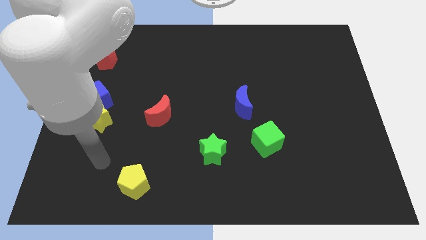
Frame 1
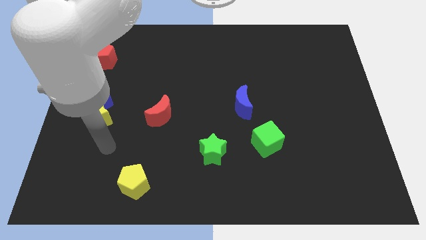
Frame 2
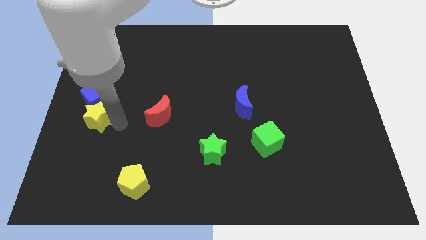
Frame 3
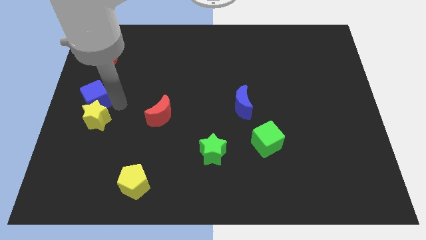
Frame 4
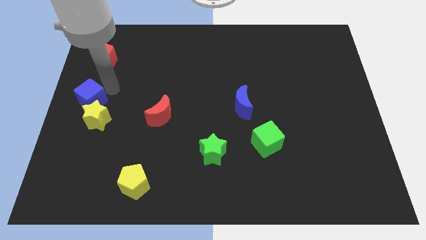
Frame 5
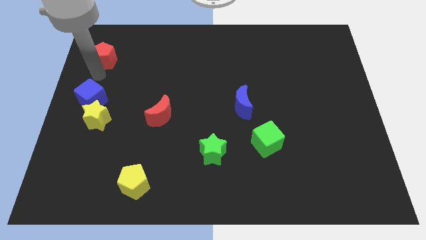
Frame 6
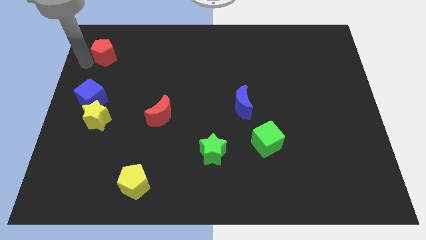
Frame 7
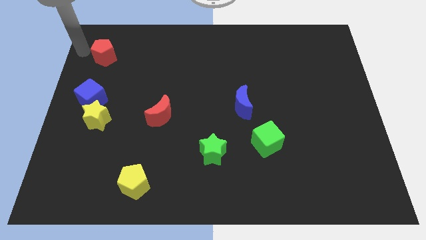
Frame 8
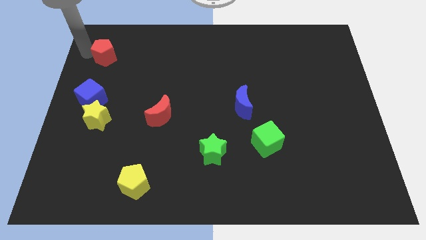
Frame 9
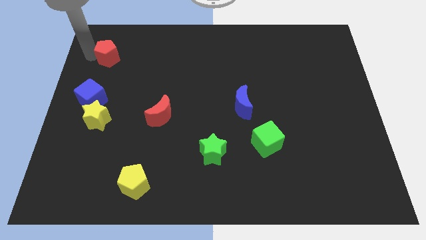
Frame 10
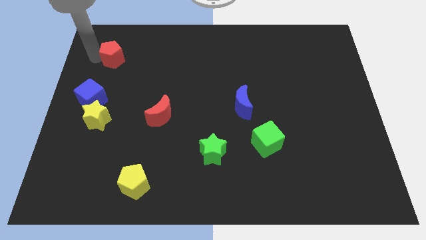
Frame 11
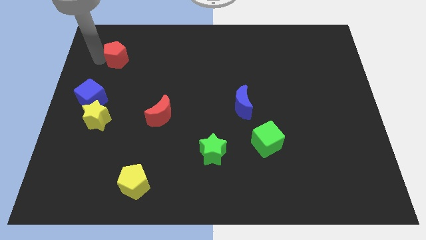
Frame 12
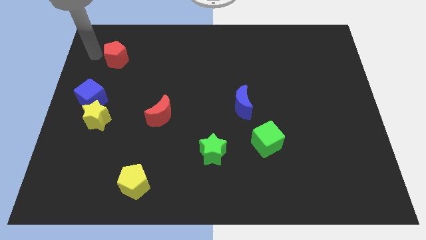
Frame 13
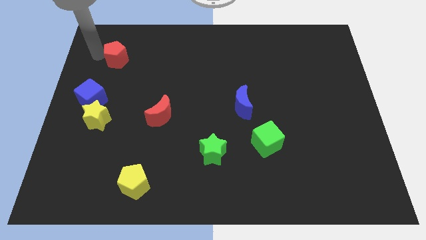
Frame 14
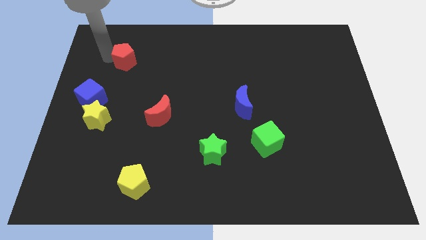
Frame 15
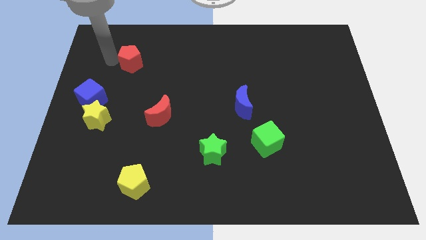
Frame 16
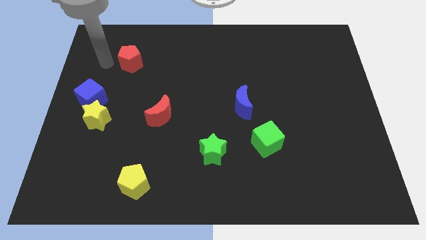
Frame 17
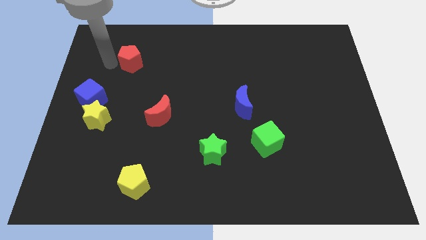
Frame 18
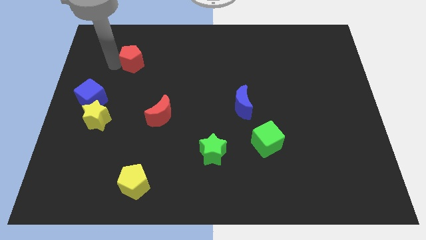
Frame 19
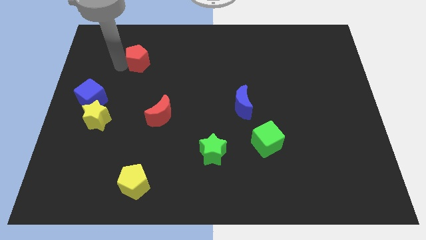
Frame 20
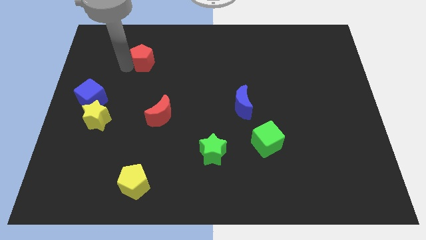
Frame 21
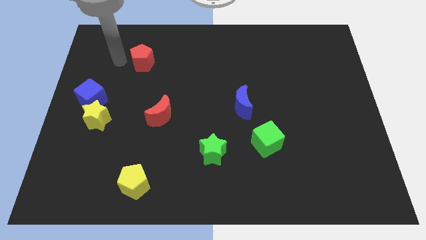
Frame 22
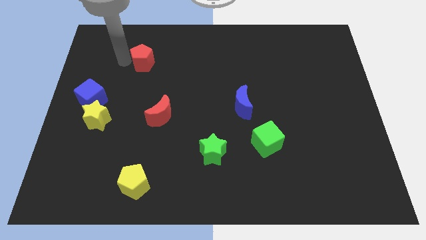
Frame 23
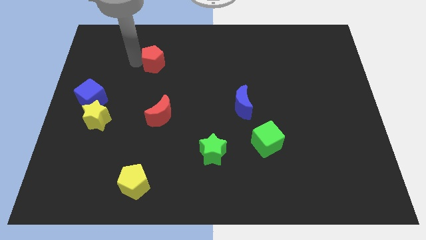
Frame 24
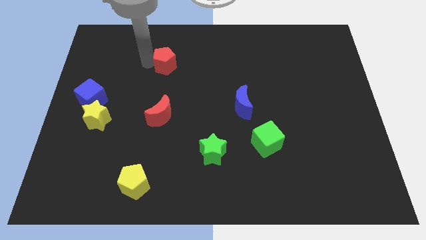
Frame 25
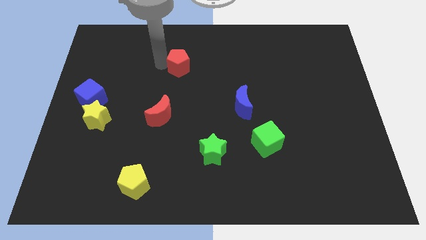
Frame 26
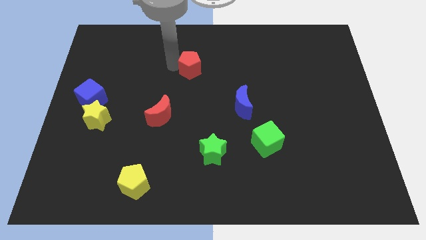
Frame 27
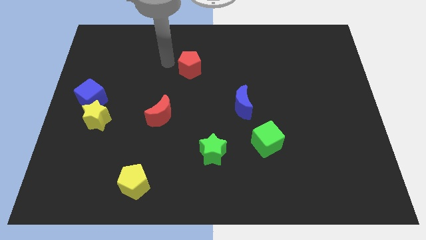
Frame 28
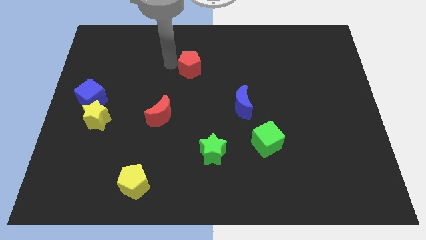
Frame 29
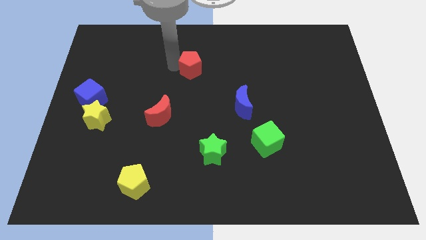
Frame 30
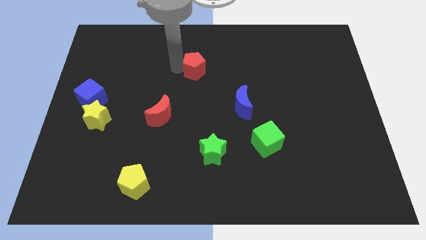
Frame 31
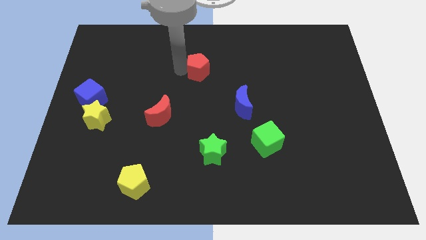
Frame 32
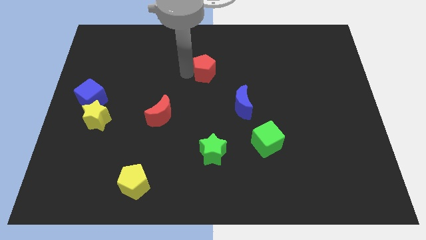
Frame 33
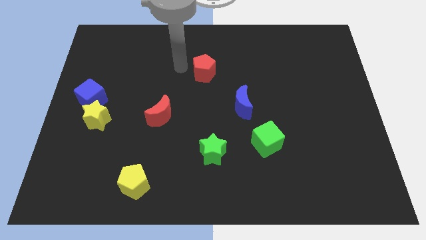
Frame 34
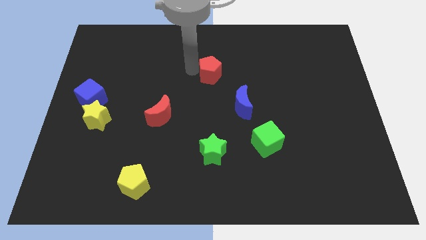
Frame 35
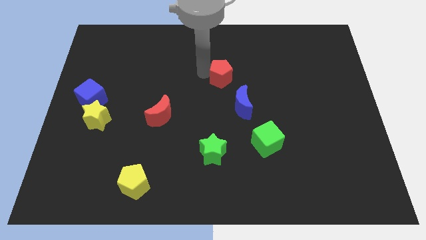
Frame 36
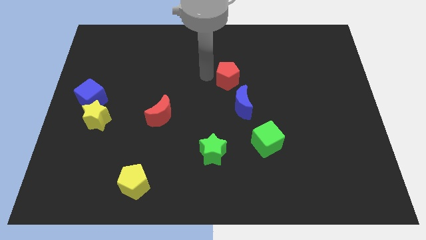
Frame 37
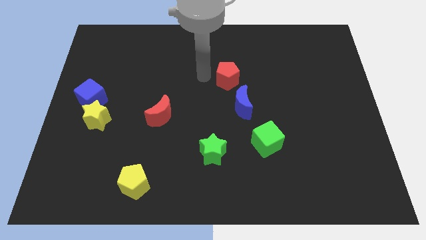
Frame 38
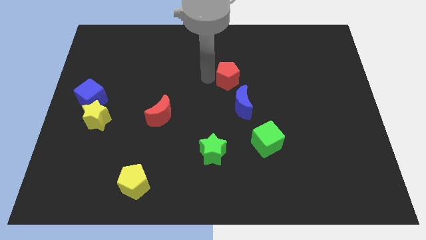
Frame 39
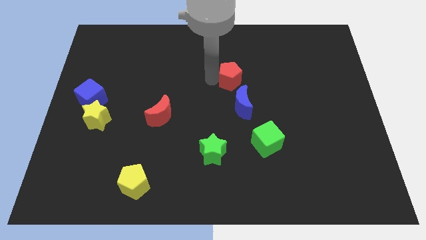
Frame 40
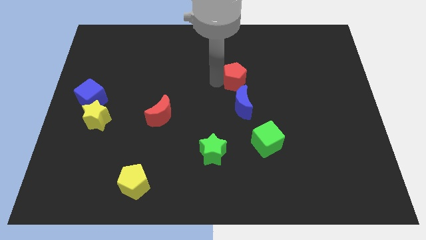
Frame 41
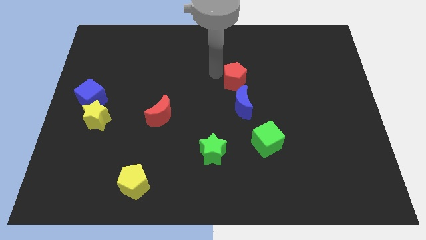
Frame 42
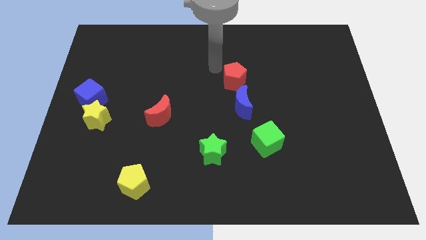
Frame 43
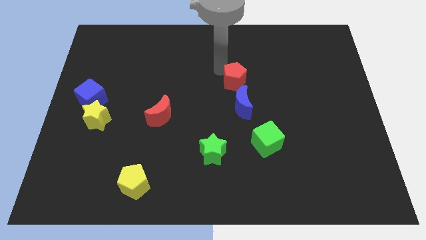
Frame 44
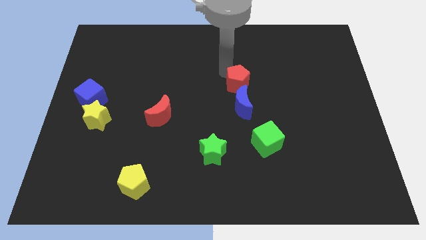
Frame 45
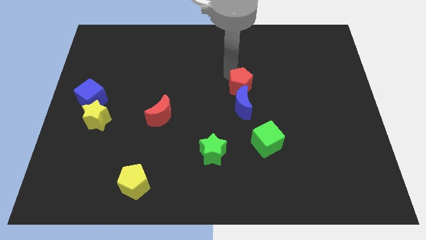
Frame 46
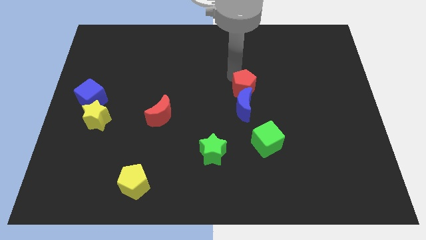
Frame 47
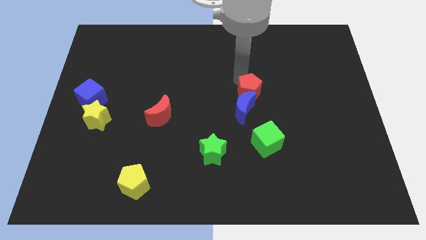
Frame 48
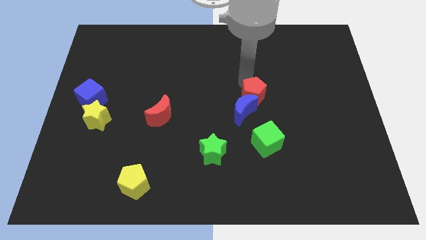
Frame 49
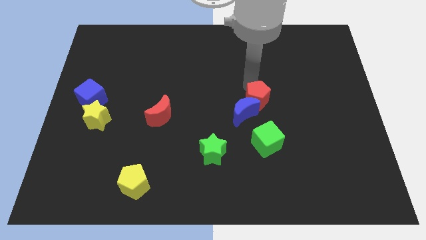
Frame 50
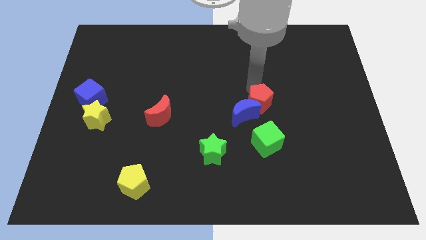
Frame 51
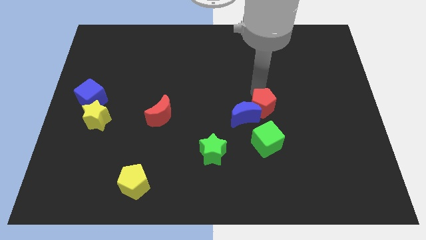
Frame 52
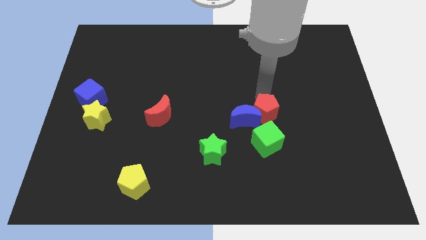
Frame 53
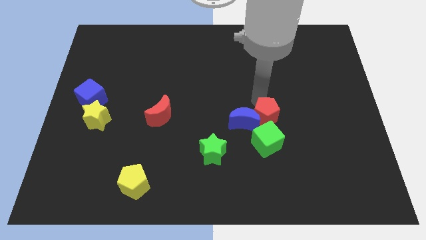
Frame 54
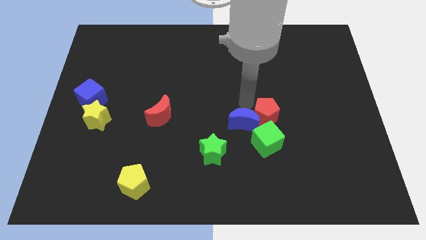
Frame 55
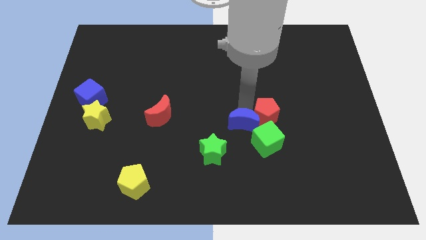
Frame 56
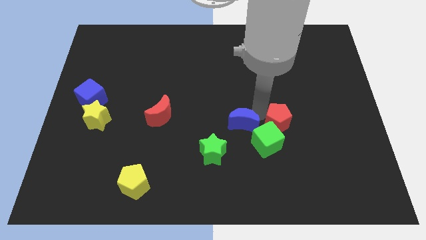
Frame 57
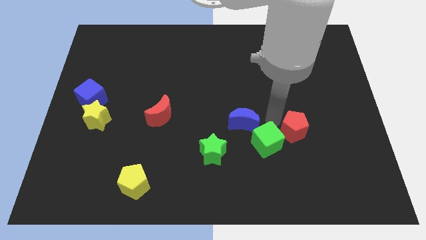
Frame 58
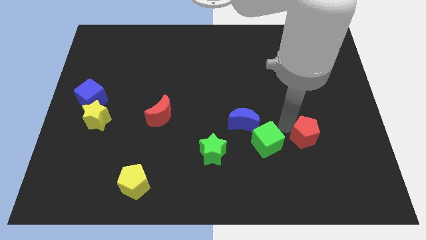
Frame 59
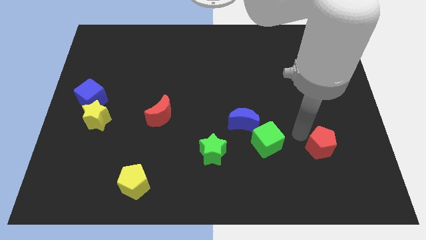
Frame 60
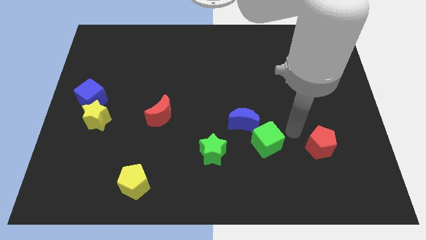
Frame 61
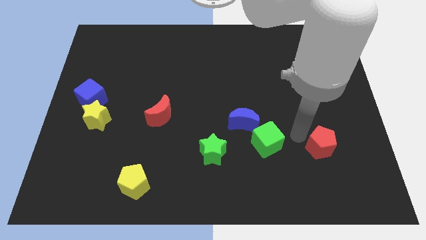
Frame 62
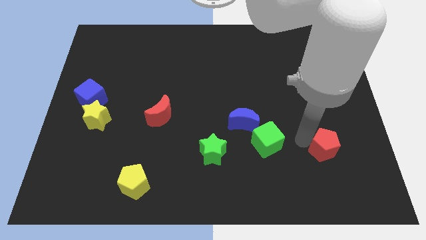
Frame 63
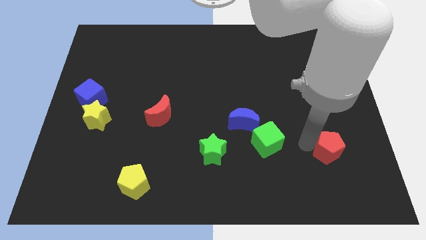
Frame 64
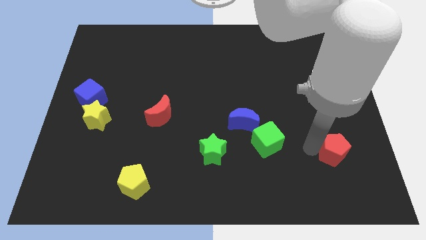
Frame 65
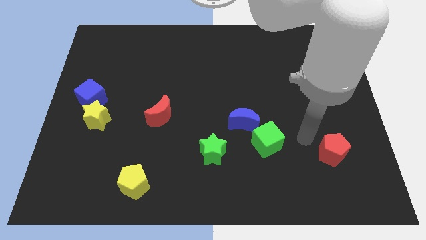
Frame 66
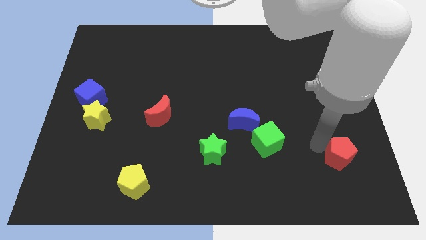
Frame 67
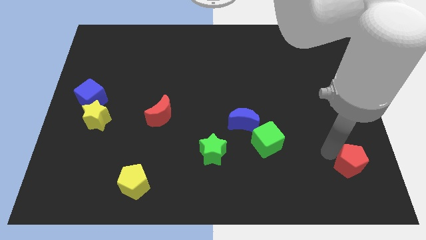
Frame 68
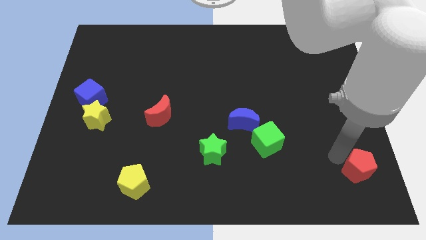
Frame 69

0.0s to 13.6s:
move the red pentagon to the bottom right of the board
